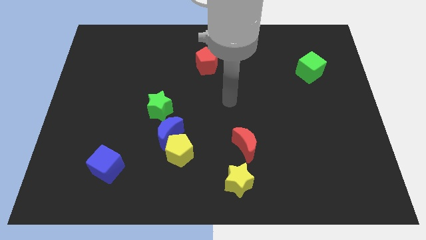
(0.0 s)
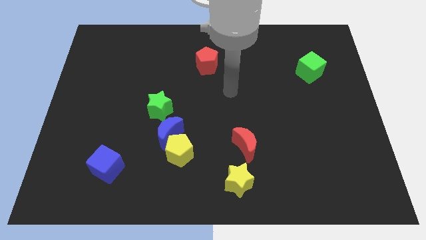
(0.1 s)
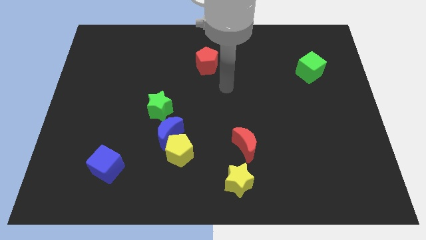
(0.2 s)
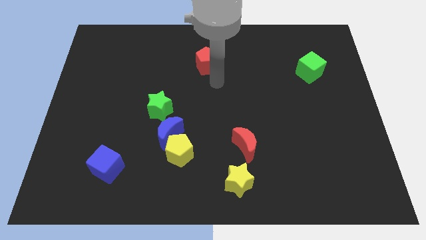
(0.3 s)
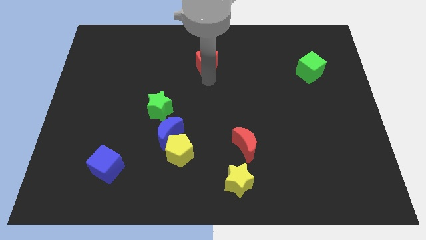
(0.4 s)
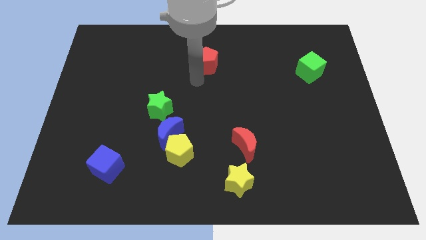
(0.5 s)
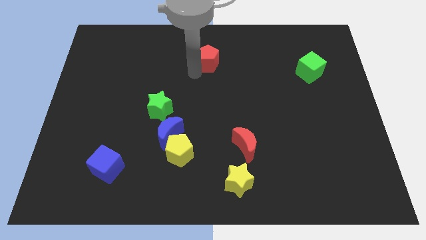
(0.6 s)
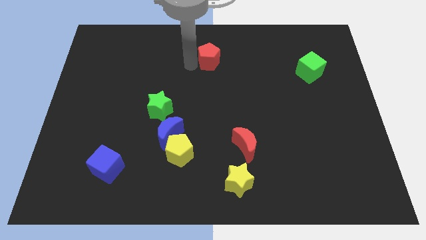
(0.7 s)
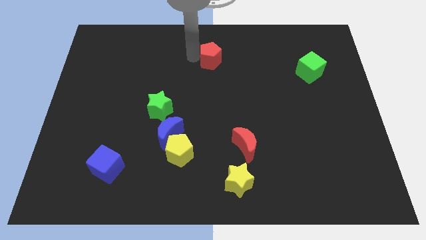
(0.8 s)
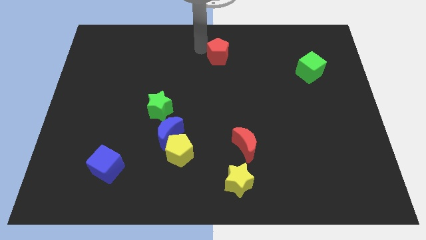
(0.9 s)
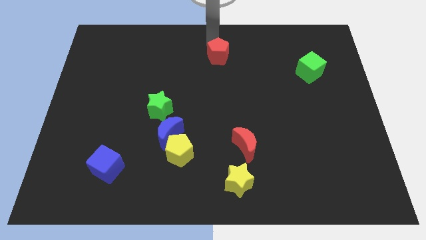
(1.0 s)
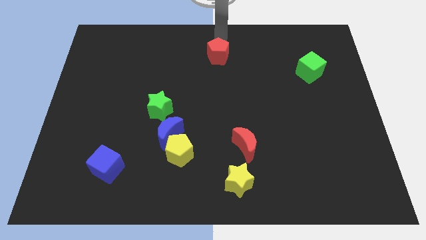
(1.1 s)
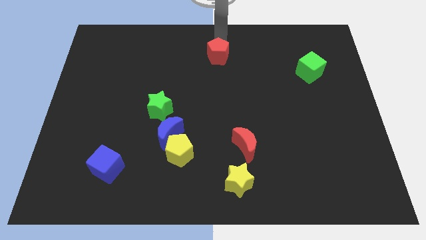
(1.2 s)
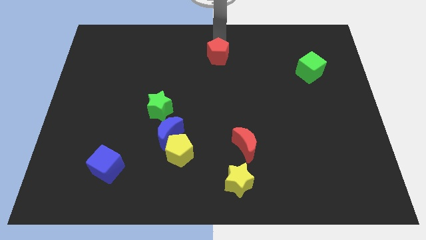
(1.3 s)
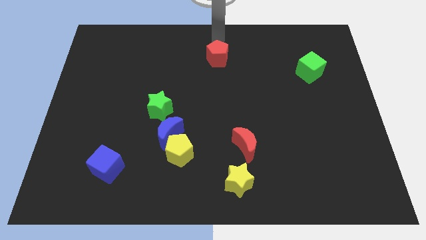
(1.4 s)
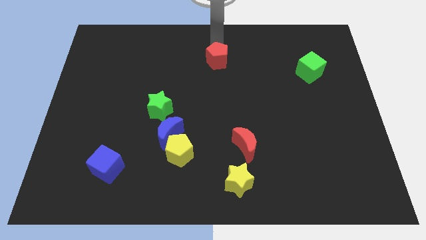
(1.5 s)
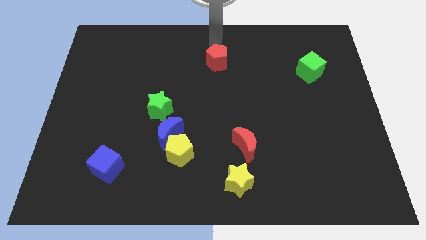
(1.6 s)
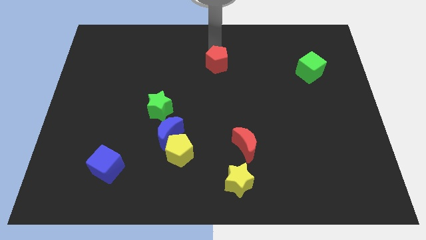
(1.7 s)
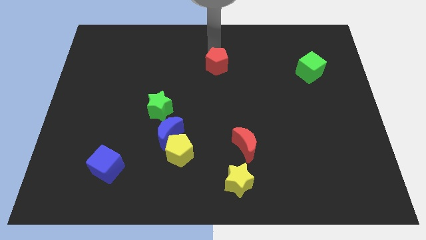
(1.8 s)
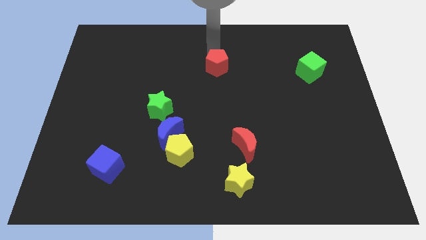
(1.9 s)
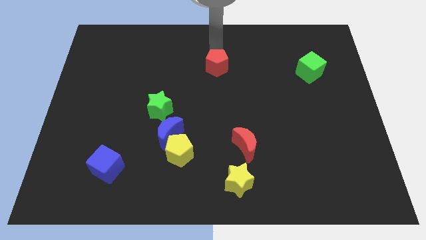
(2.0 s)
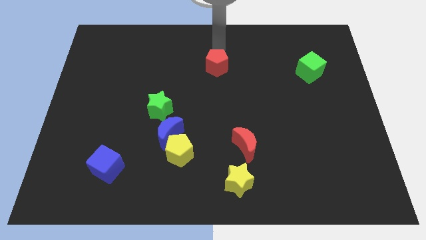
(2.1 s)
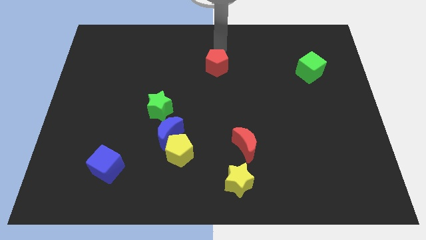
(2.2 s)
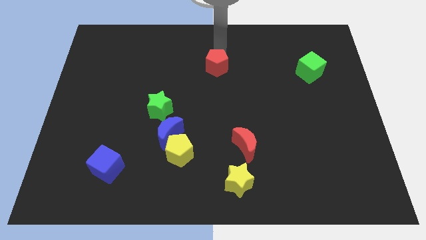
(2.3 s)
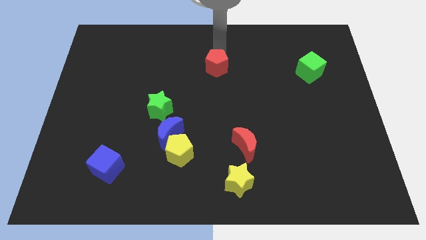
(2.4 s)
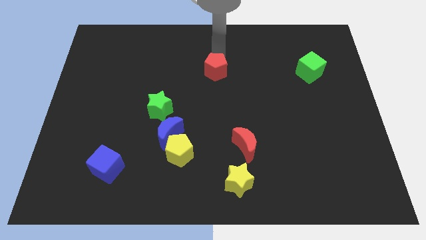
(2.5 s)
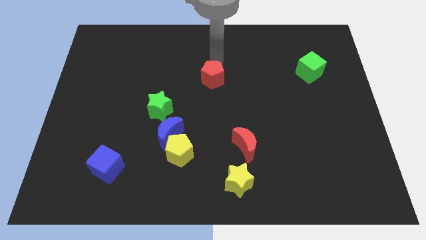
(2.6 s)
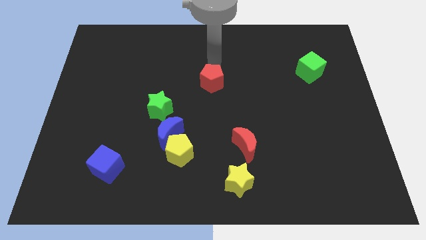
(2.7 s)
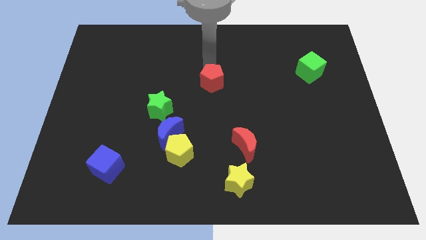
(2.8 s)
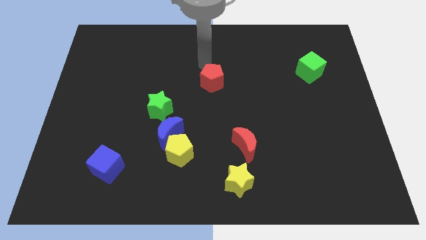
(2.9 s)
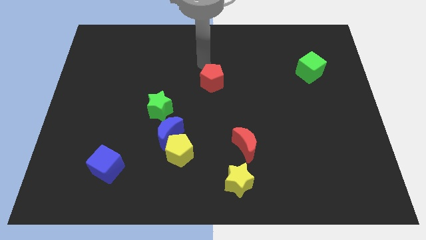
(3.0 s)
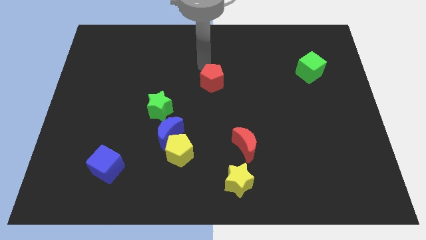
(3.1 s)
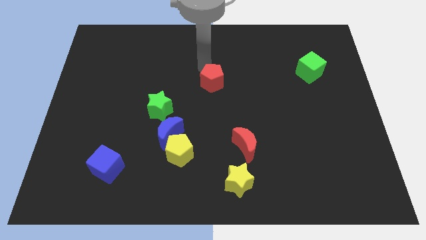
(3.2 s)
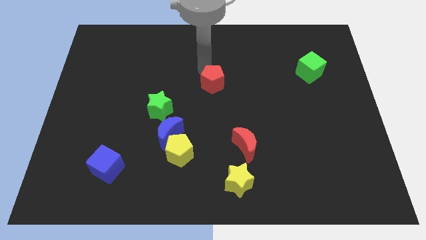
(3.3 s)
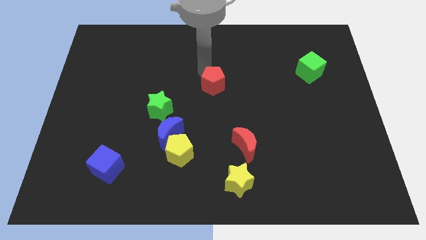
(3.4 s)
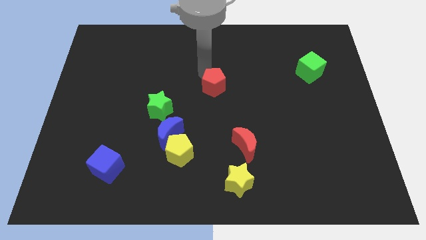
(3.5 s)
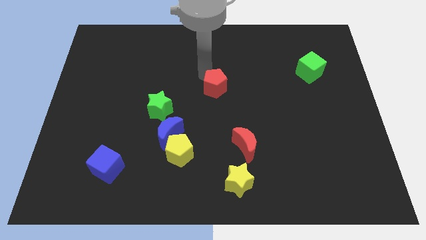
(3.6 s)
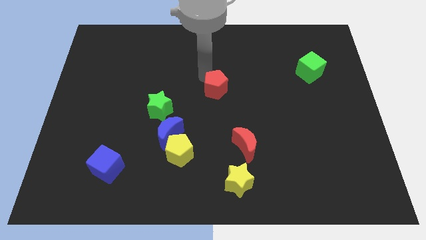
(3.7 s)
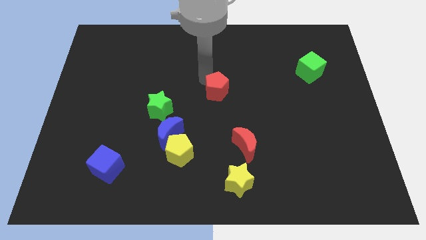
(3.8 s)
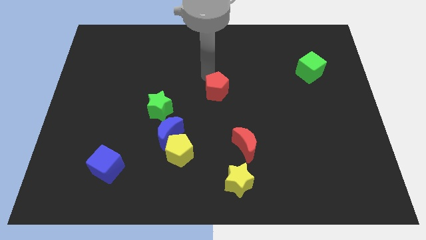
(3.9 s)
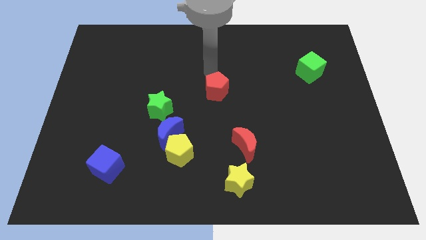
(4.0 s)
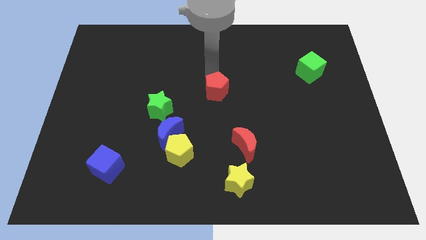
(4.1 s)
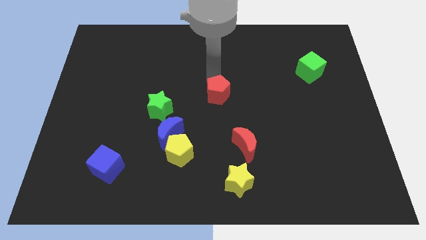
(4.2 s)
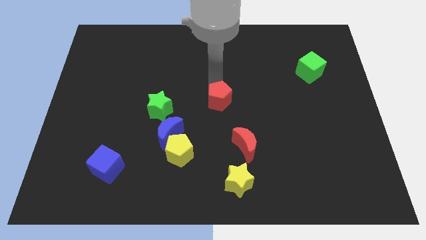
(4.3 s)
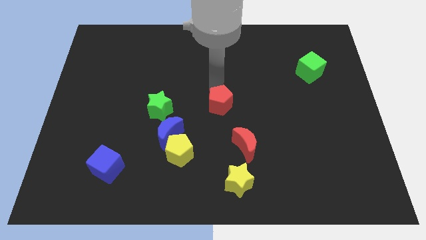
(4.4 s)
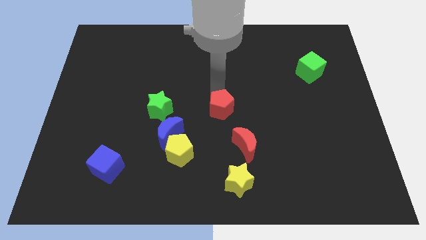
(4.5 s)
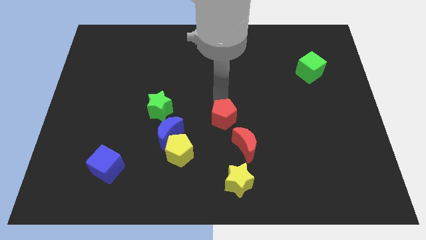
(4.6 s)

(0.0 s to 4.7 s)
slide the red pentagon to the right of the blue moon

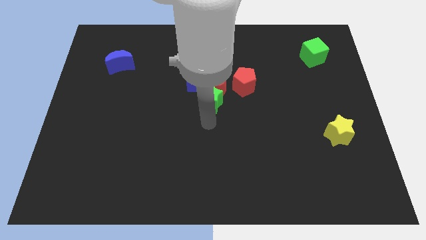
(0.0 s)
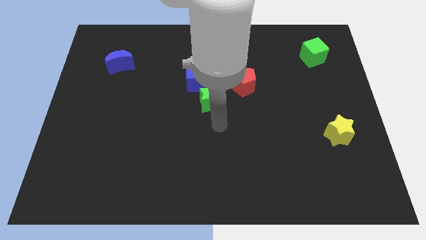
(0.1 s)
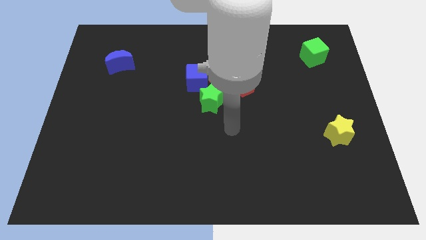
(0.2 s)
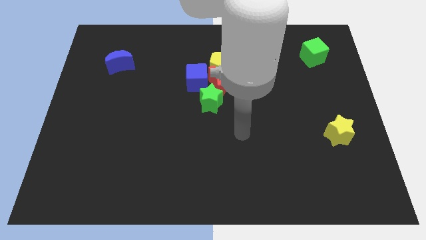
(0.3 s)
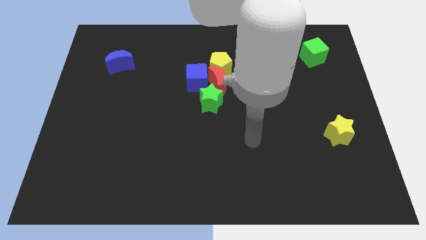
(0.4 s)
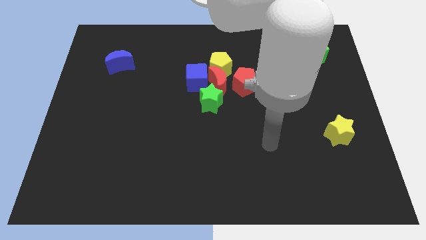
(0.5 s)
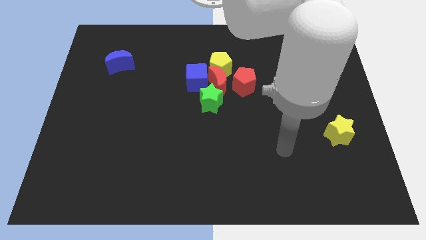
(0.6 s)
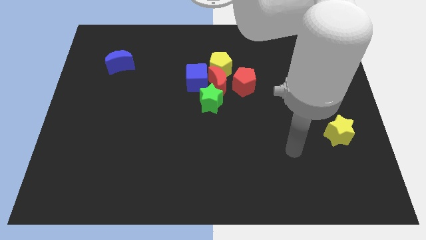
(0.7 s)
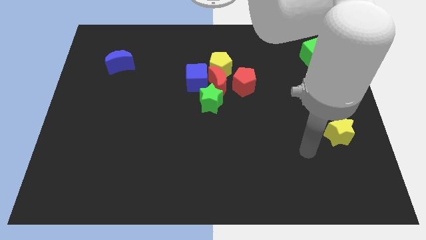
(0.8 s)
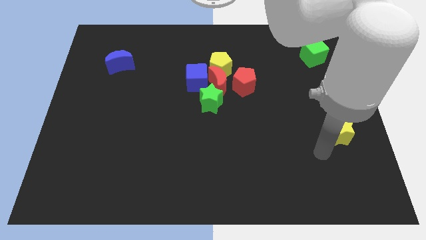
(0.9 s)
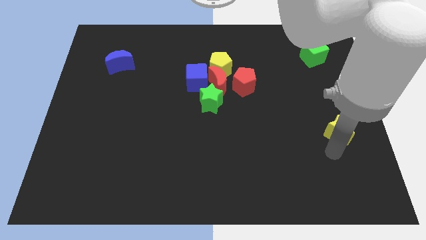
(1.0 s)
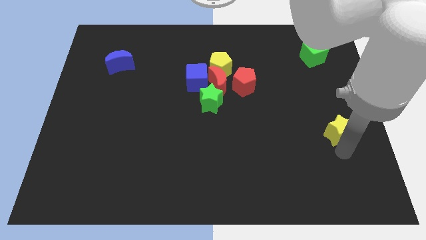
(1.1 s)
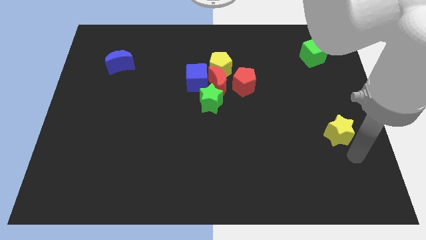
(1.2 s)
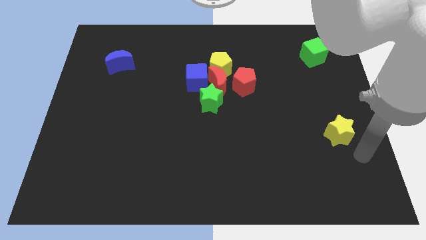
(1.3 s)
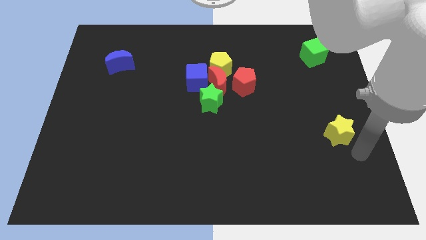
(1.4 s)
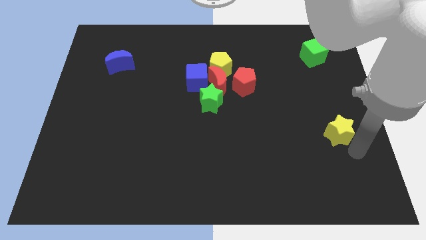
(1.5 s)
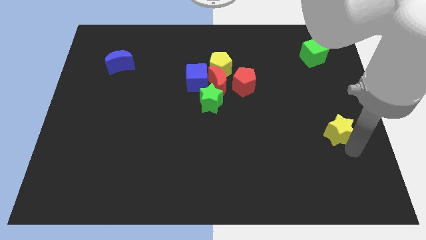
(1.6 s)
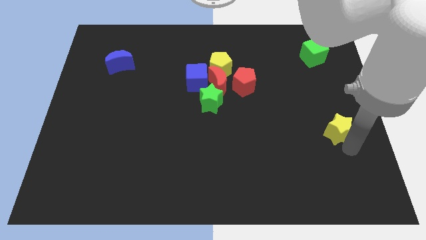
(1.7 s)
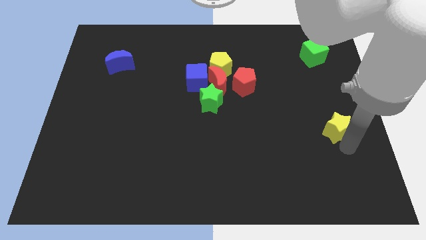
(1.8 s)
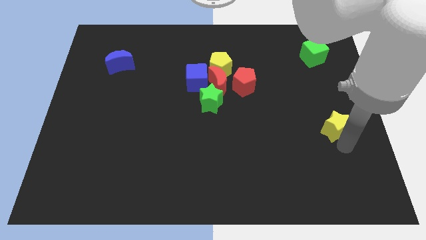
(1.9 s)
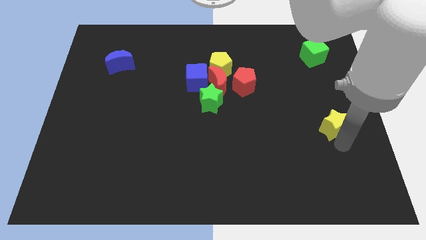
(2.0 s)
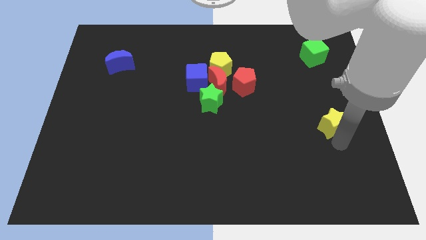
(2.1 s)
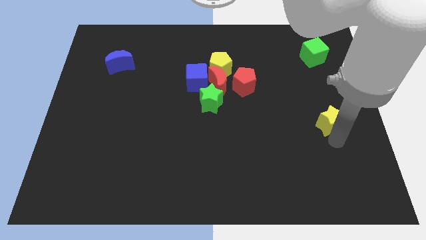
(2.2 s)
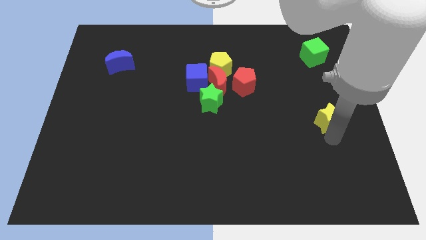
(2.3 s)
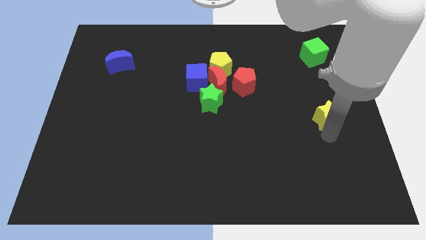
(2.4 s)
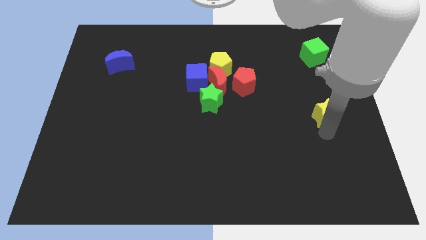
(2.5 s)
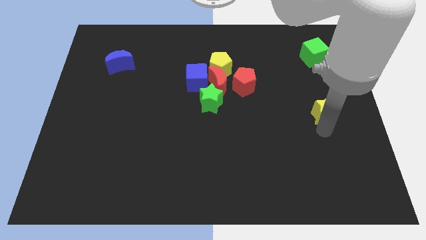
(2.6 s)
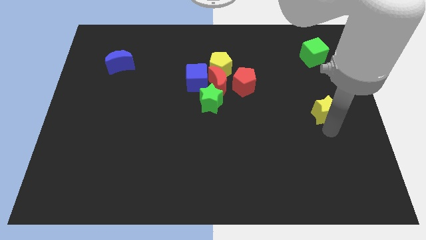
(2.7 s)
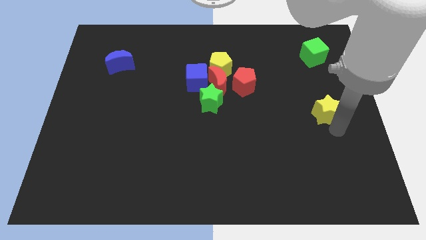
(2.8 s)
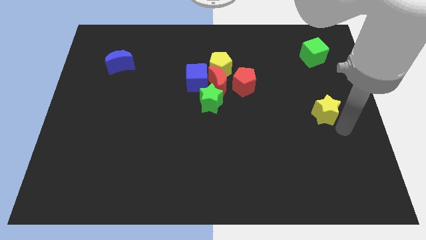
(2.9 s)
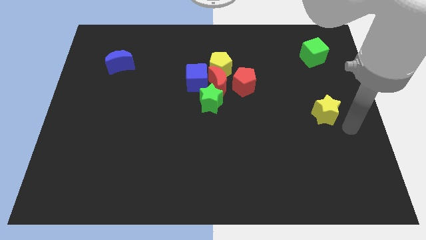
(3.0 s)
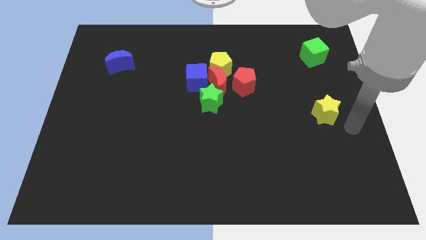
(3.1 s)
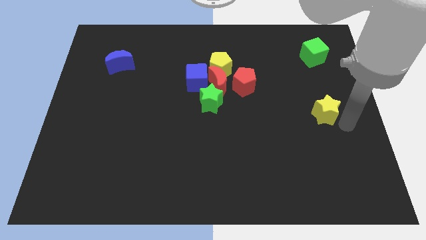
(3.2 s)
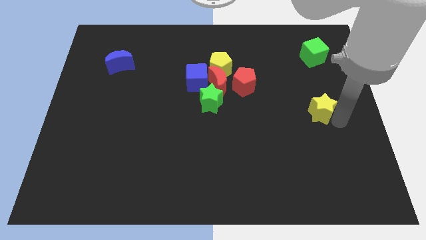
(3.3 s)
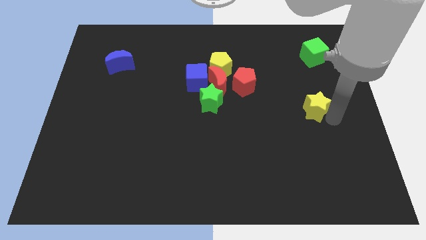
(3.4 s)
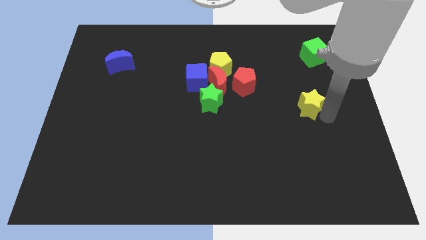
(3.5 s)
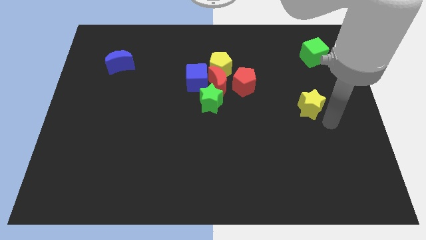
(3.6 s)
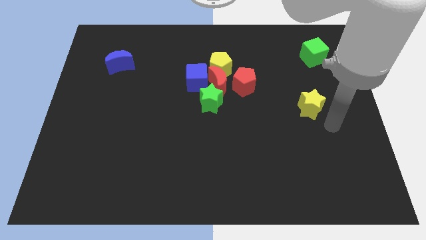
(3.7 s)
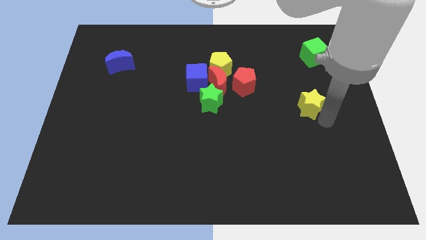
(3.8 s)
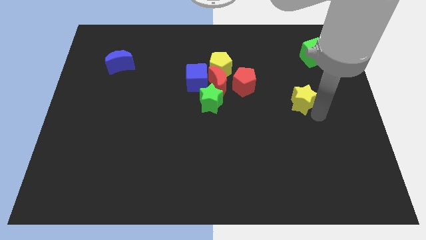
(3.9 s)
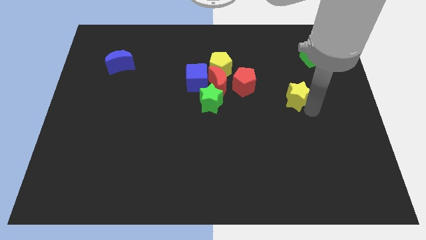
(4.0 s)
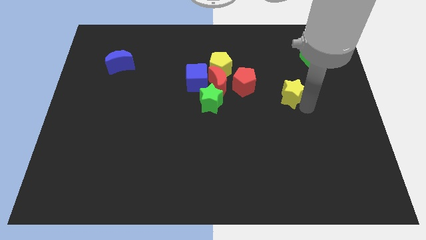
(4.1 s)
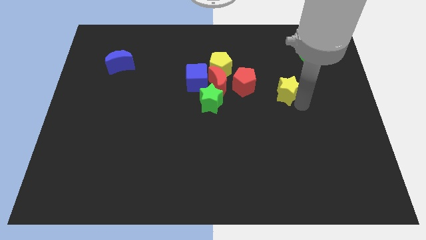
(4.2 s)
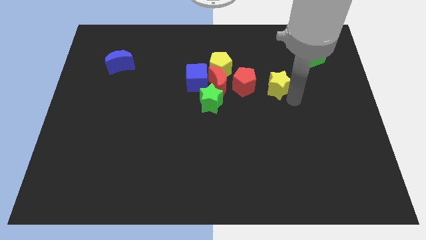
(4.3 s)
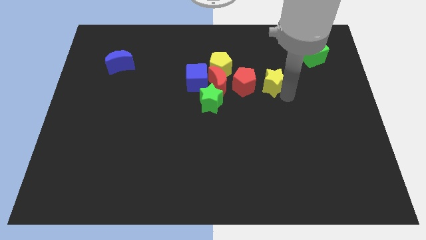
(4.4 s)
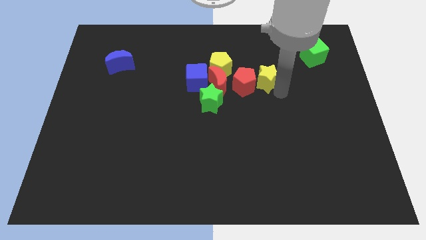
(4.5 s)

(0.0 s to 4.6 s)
push the yellow star diagonally up and to the right of the red pentagon
